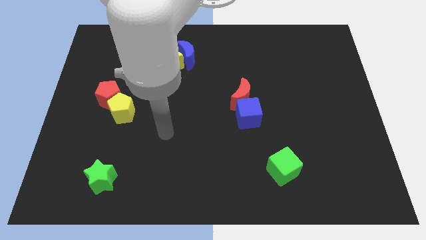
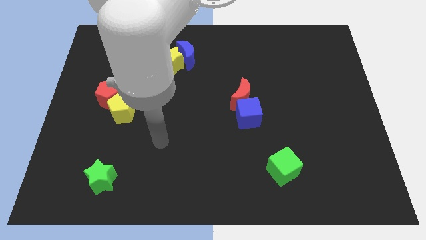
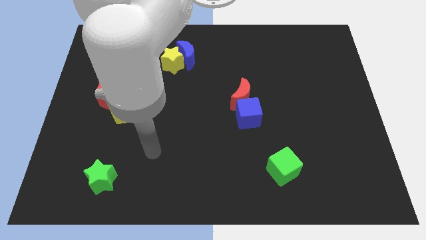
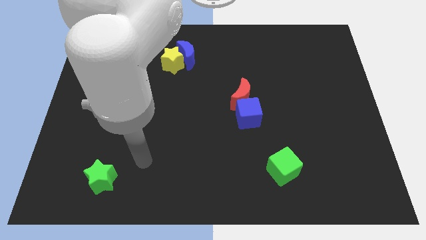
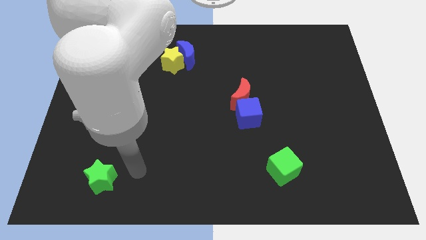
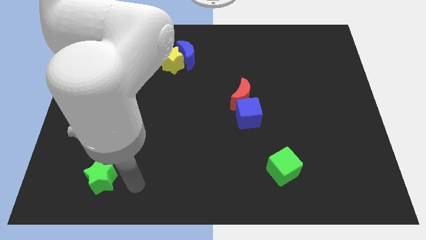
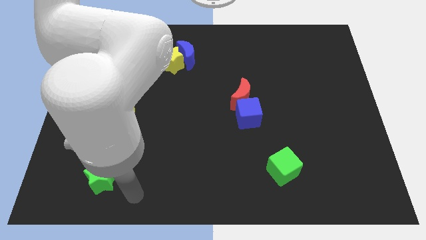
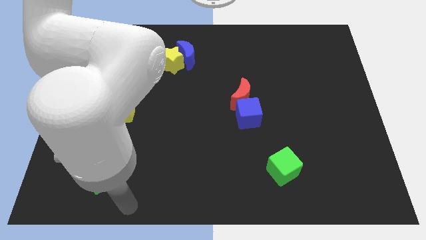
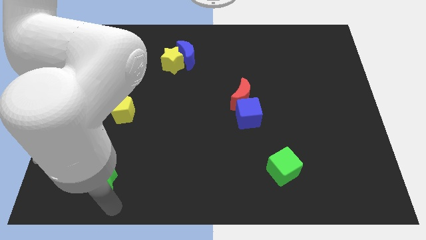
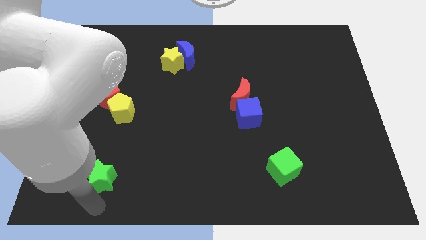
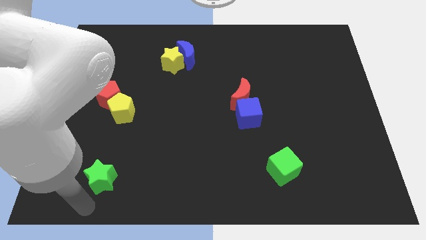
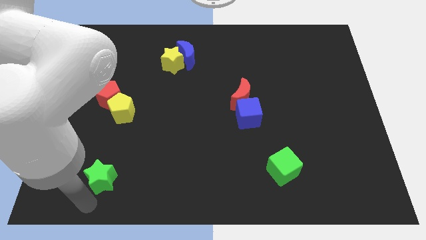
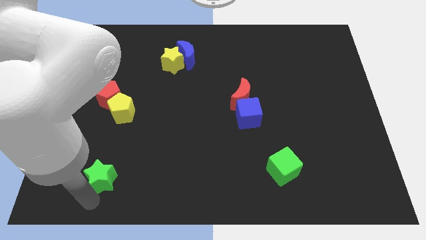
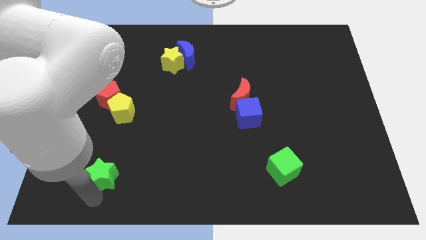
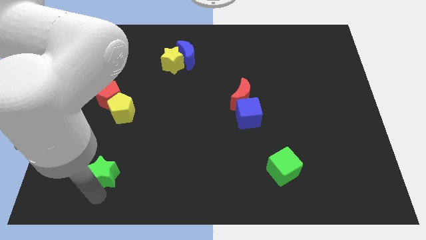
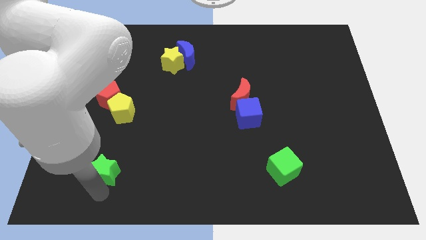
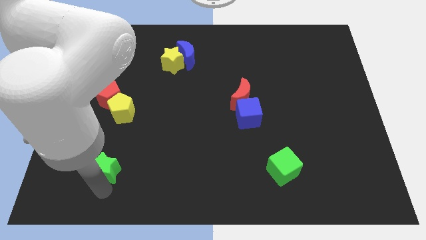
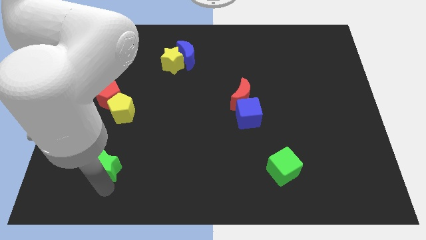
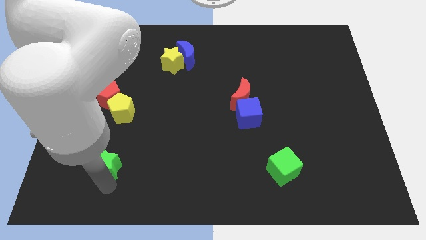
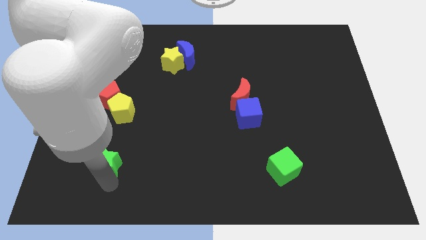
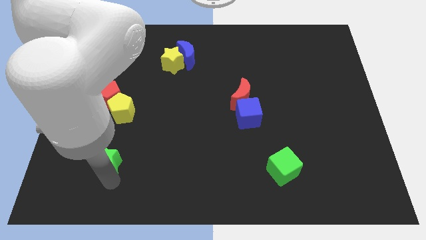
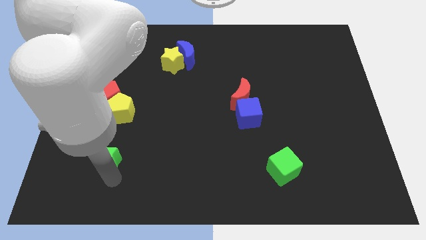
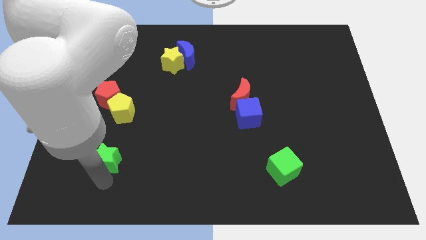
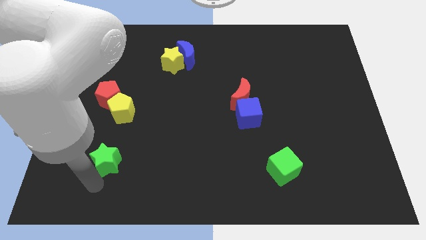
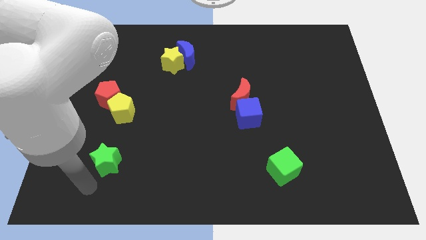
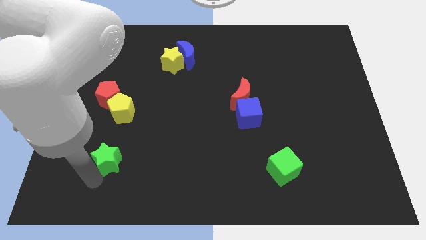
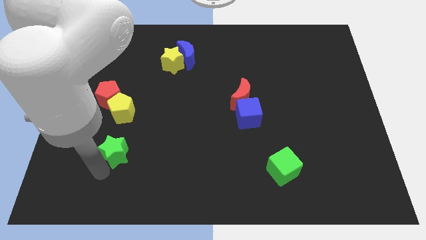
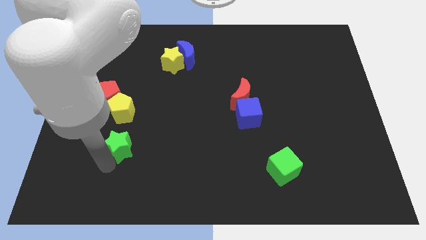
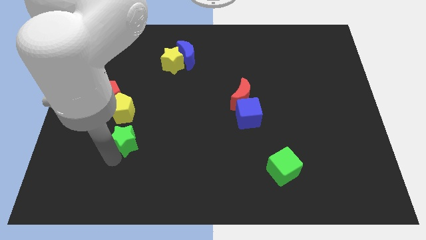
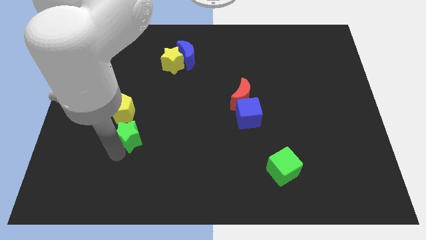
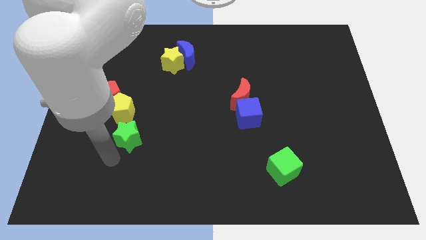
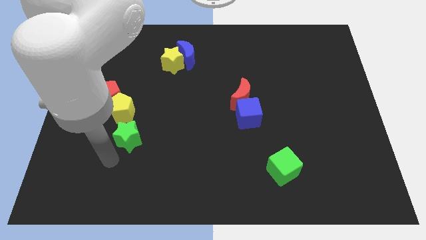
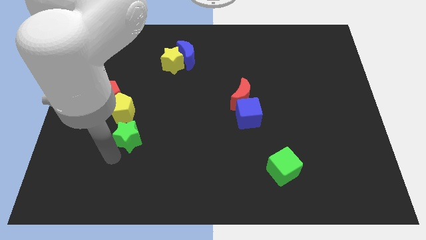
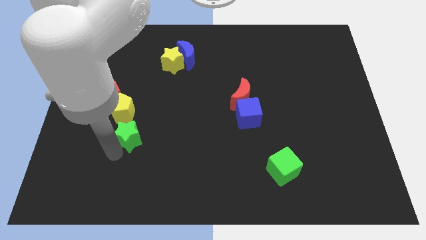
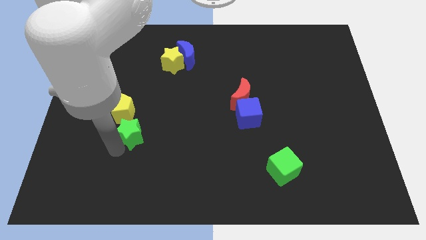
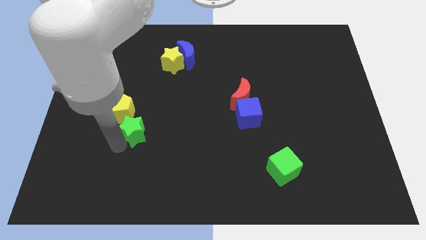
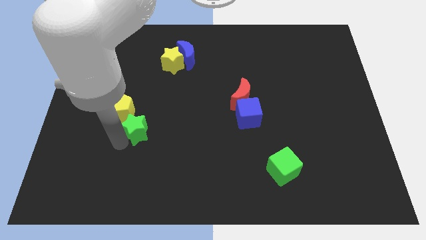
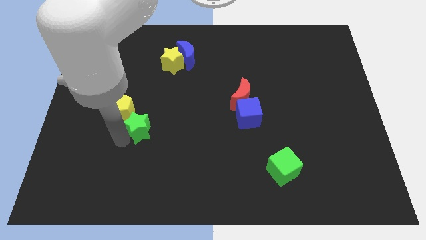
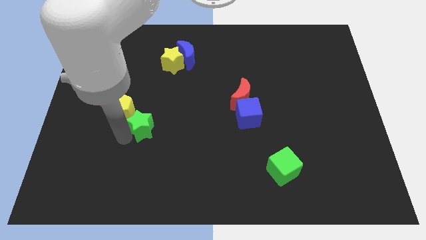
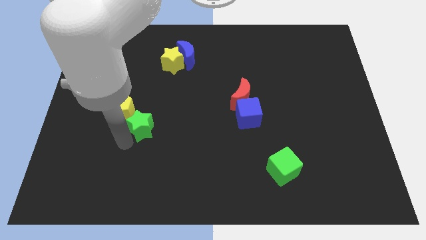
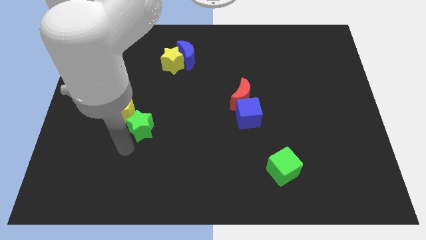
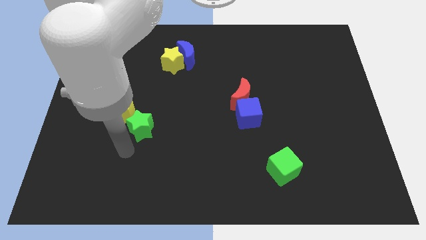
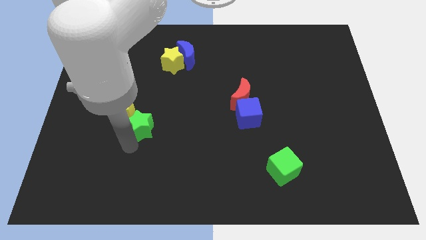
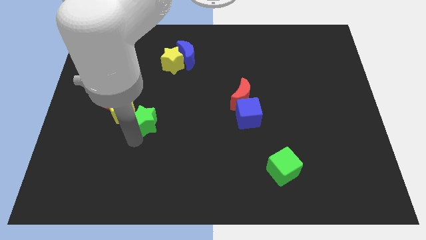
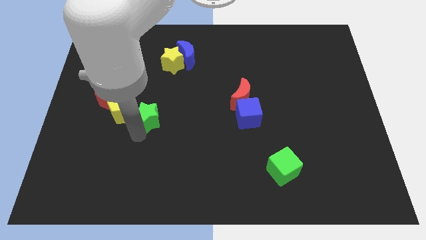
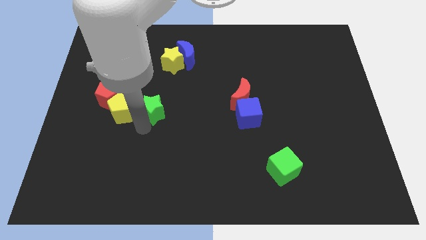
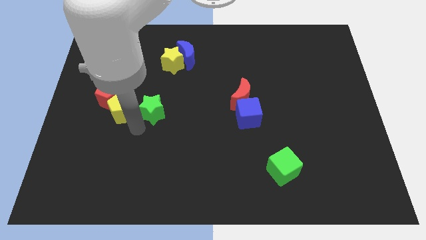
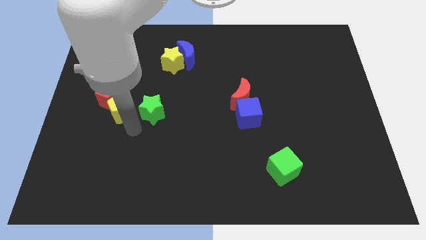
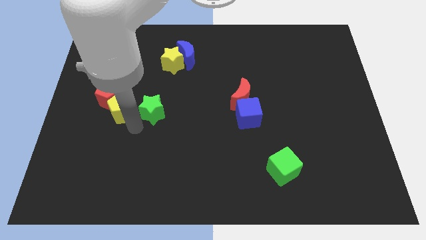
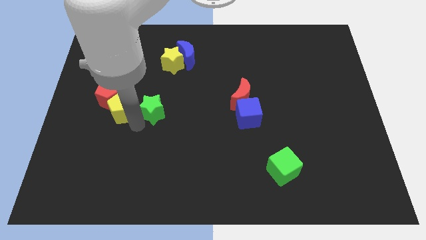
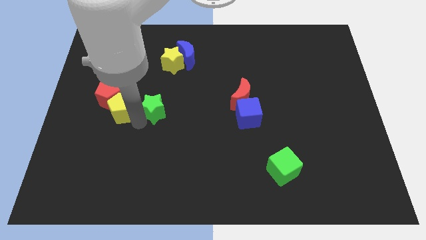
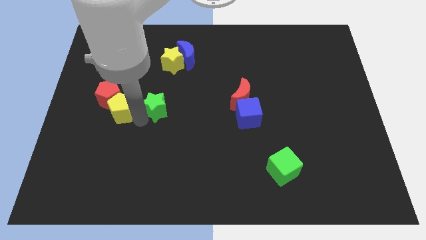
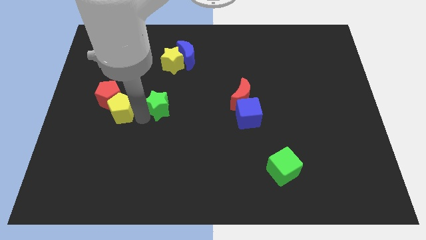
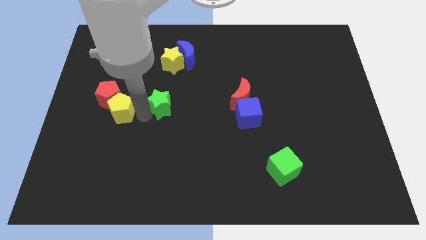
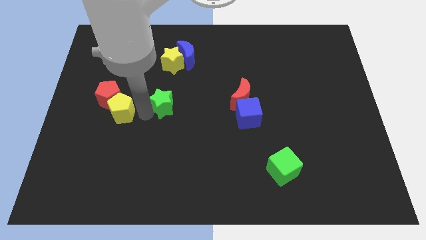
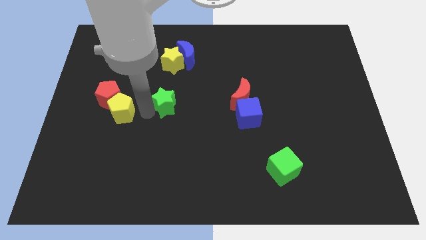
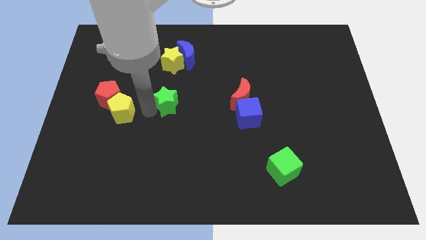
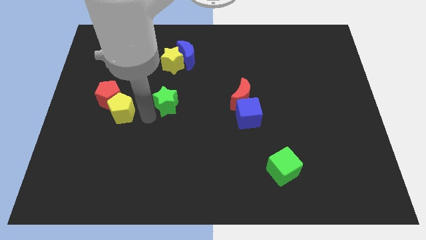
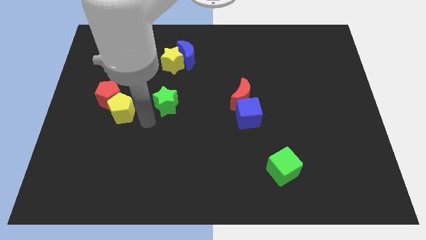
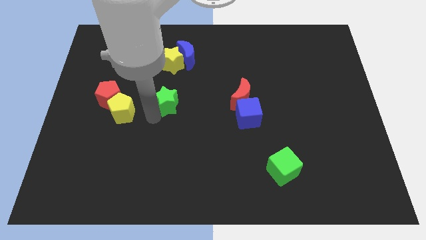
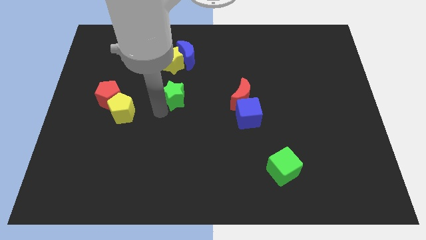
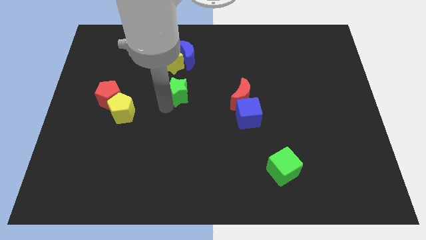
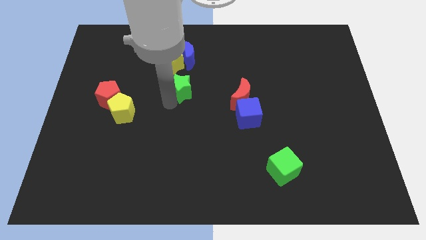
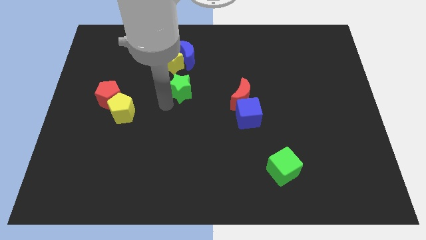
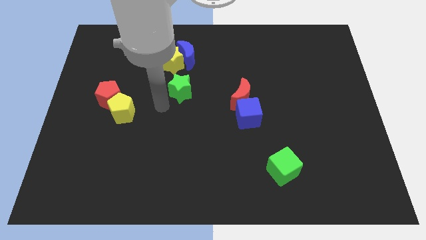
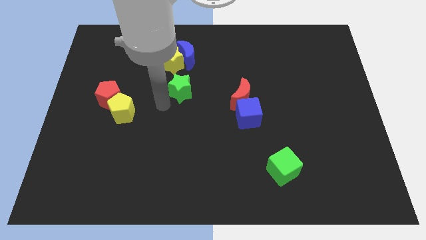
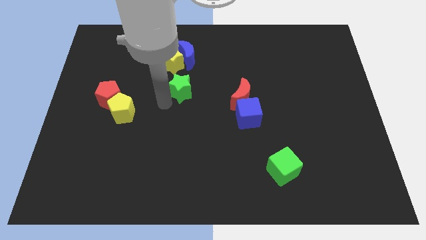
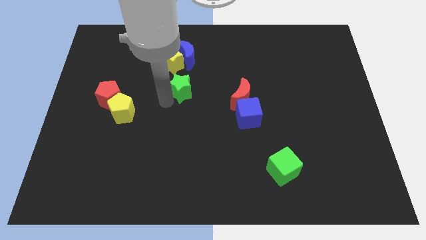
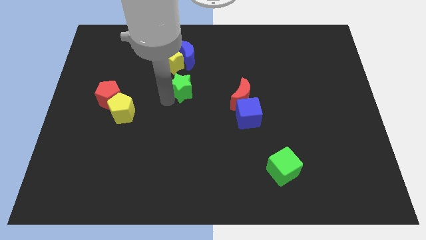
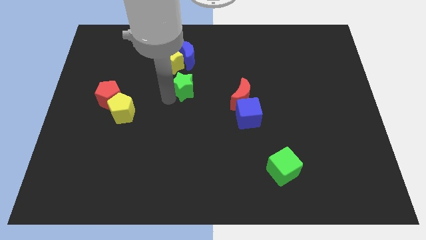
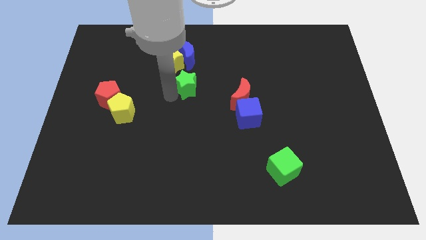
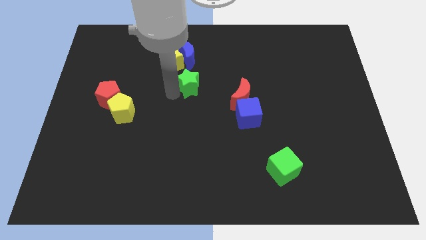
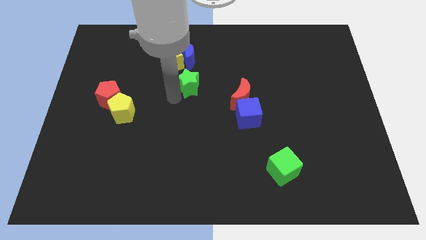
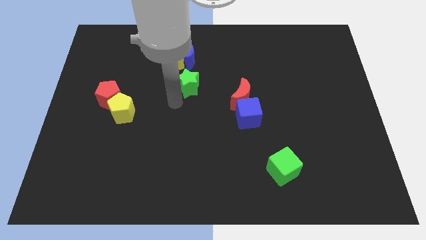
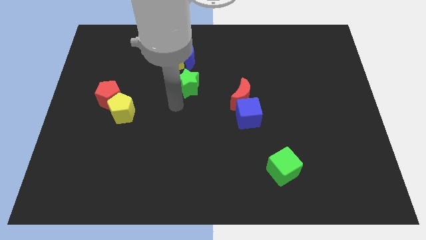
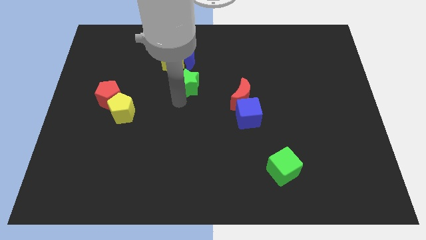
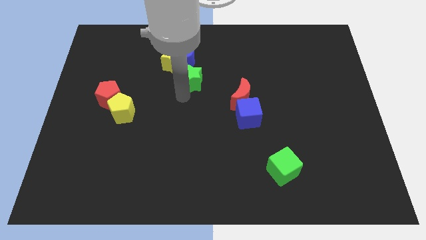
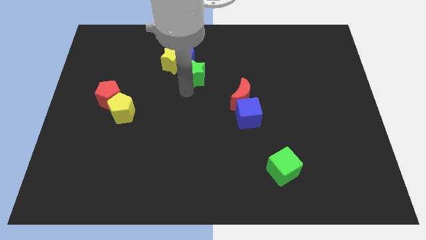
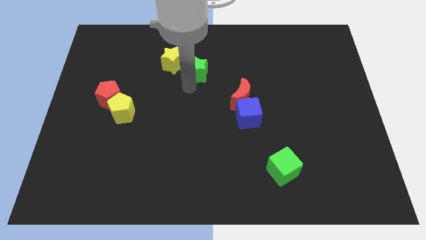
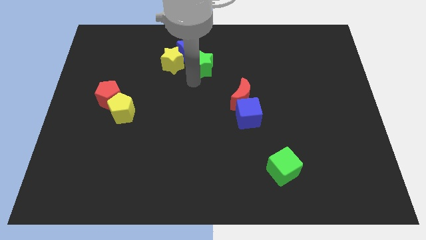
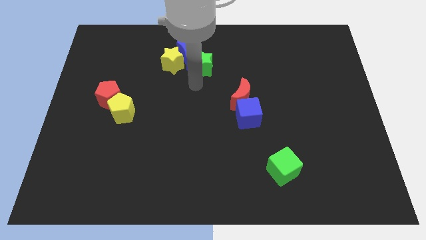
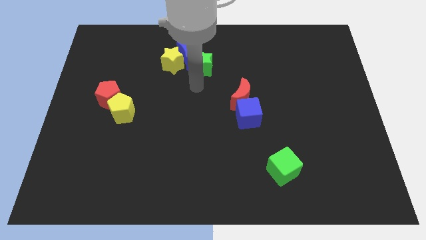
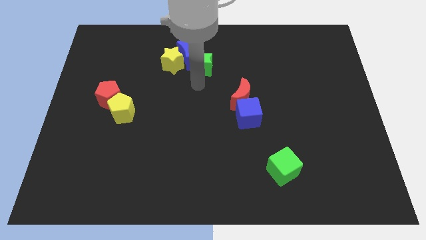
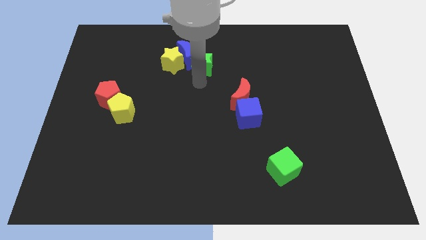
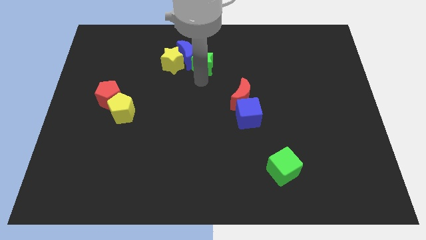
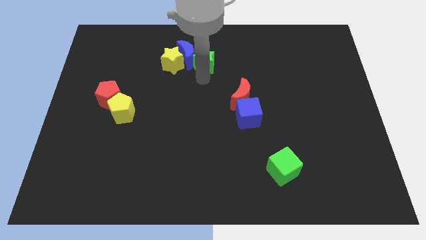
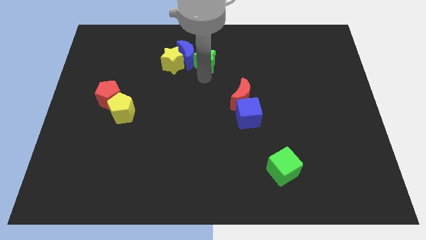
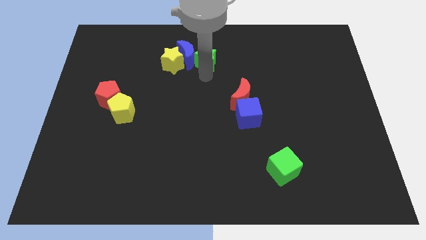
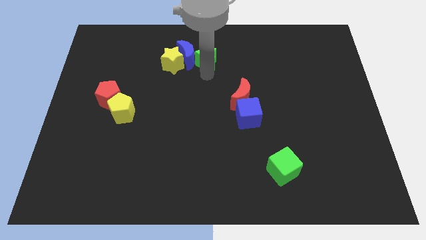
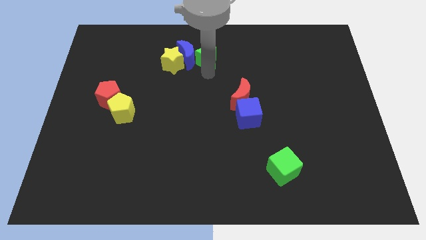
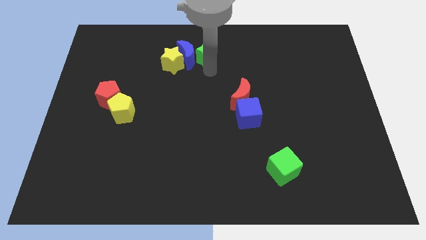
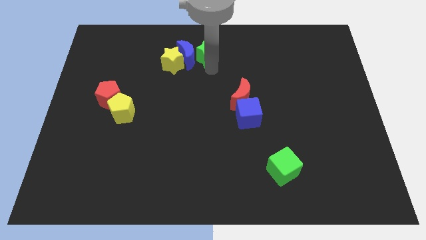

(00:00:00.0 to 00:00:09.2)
put the green star to the top
